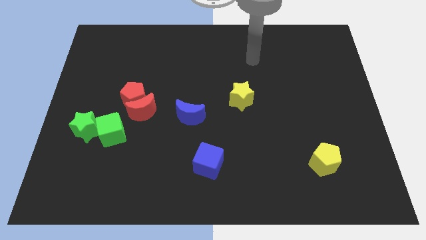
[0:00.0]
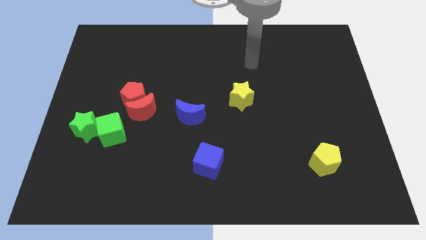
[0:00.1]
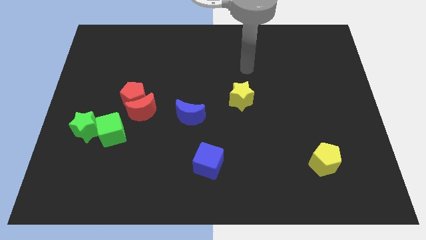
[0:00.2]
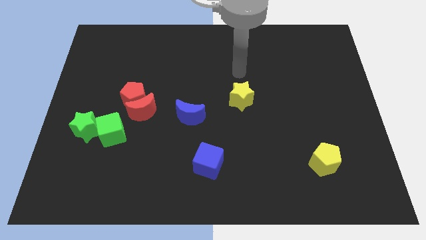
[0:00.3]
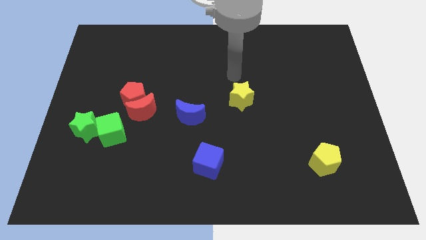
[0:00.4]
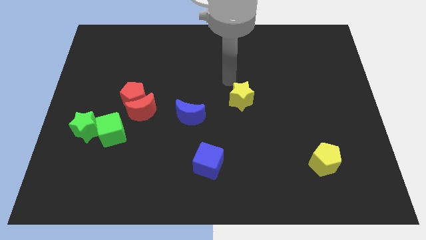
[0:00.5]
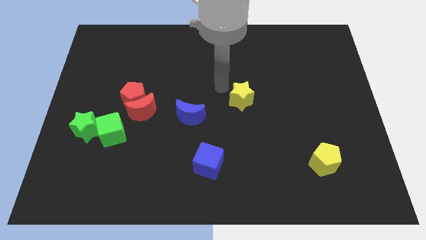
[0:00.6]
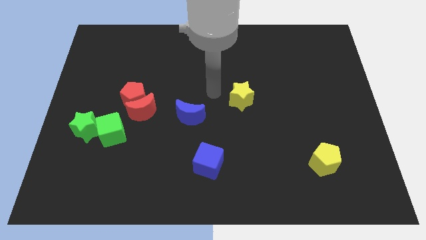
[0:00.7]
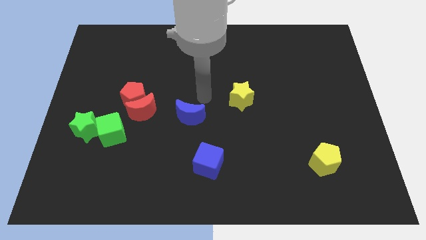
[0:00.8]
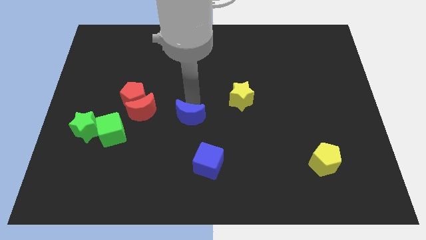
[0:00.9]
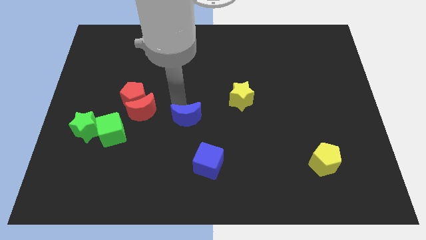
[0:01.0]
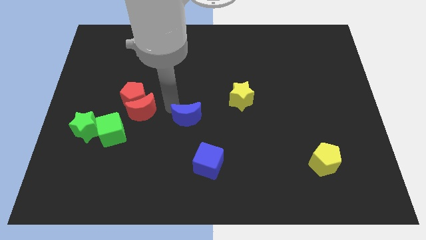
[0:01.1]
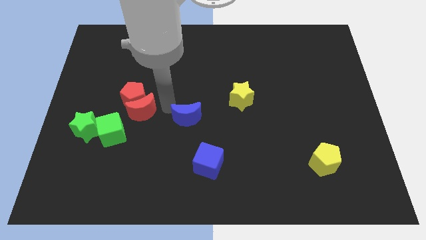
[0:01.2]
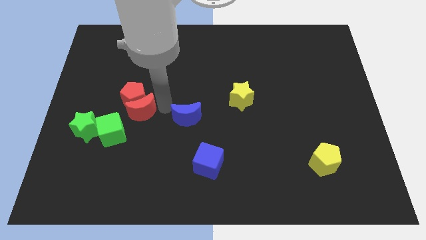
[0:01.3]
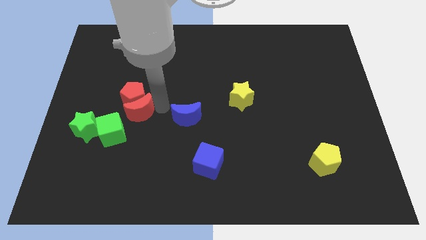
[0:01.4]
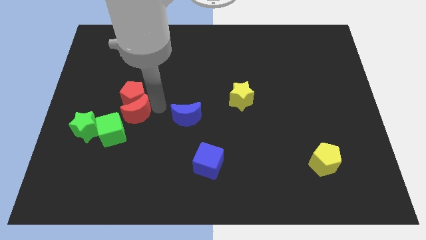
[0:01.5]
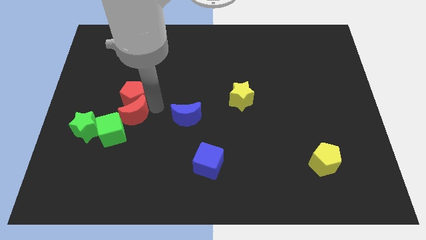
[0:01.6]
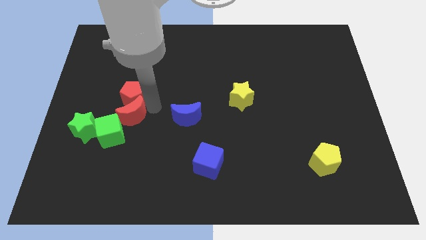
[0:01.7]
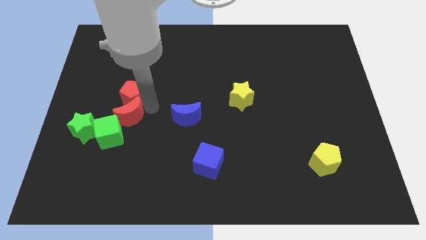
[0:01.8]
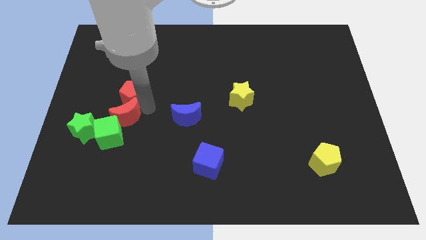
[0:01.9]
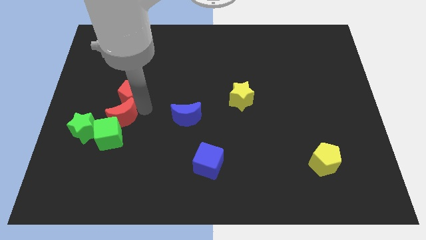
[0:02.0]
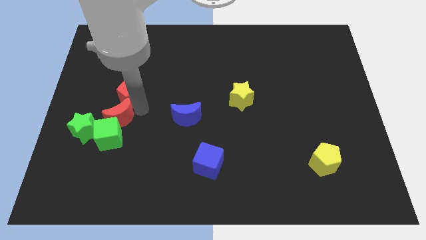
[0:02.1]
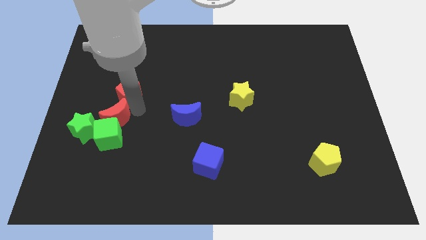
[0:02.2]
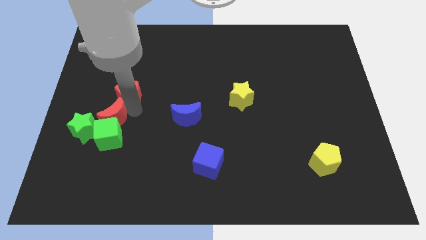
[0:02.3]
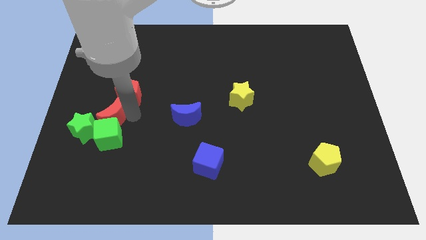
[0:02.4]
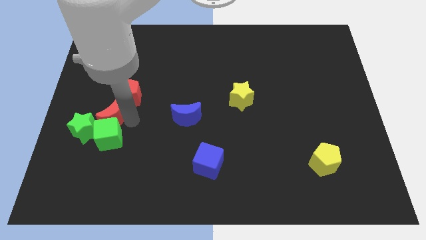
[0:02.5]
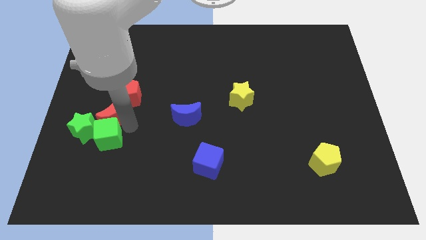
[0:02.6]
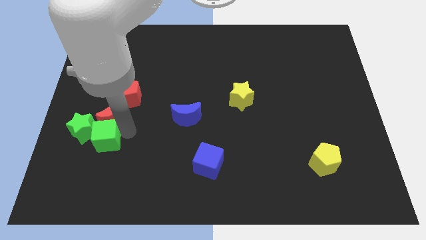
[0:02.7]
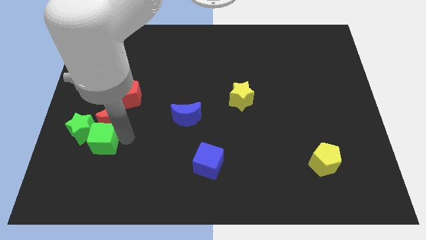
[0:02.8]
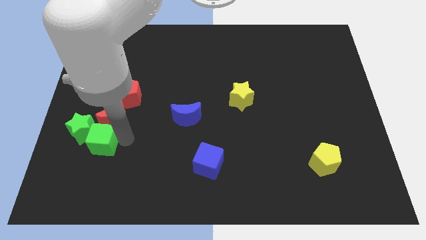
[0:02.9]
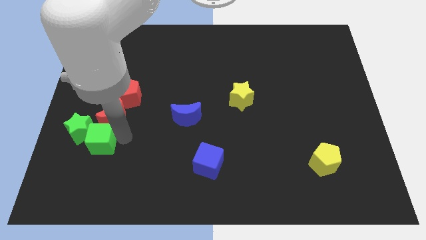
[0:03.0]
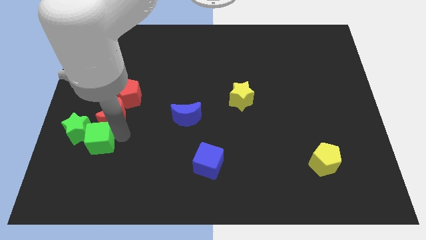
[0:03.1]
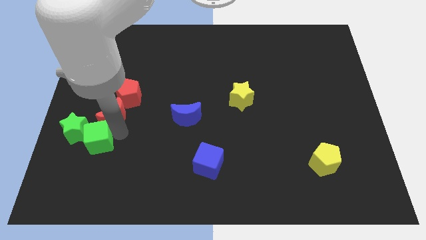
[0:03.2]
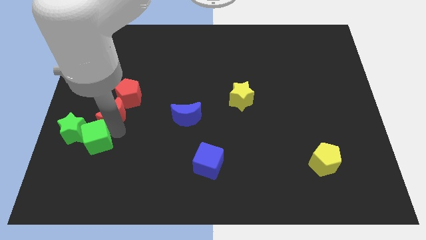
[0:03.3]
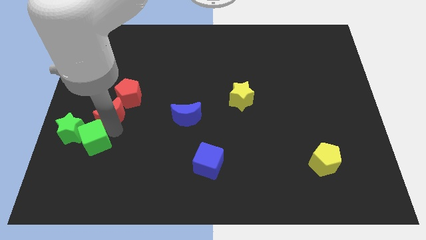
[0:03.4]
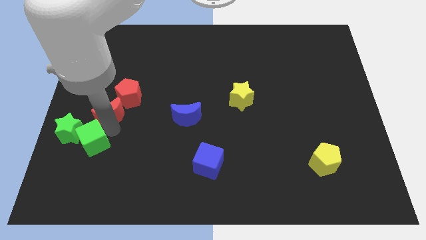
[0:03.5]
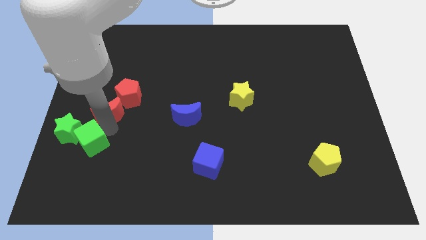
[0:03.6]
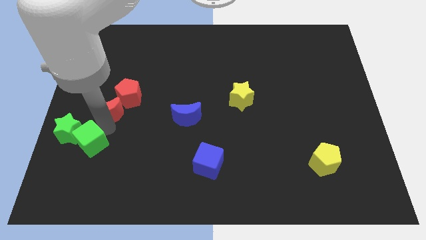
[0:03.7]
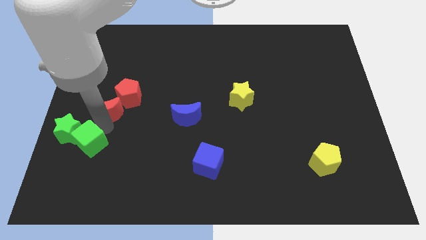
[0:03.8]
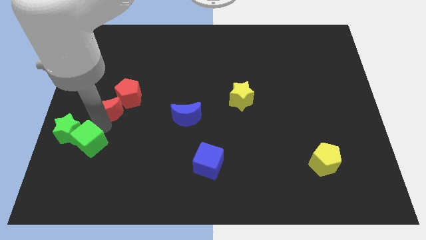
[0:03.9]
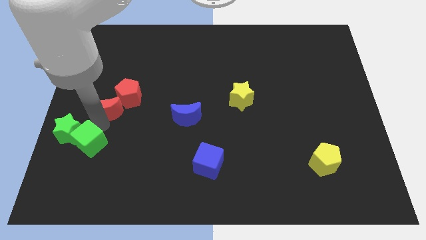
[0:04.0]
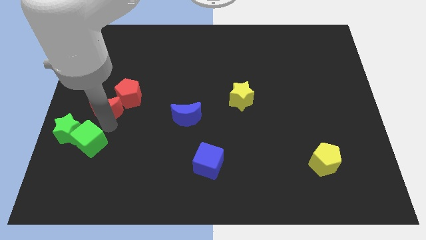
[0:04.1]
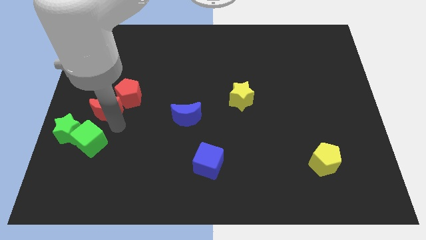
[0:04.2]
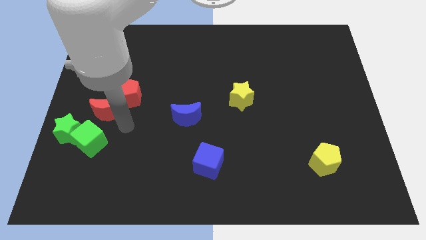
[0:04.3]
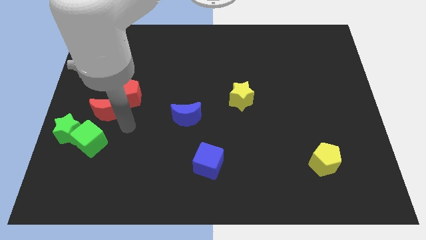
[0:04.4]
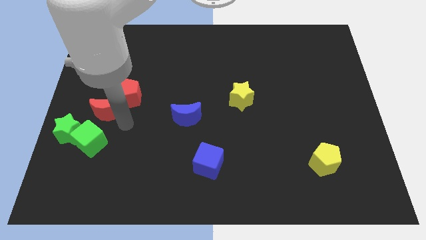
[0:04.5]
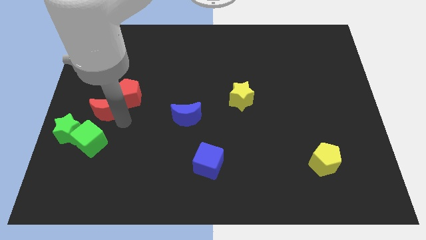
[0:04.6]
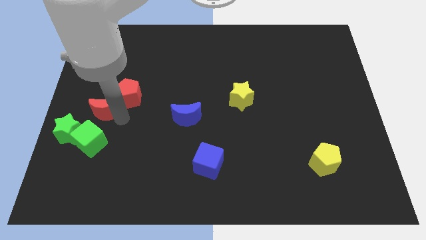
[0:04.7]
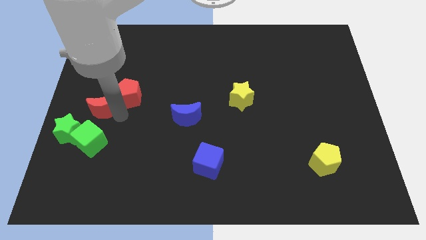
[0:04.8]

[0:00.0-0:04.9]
slide the red moon to the left side

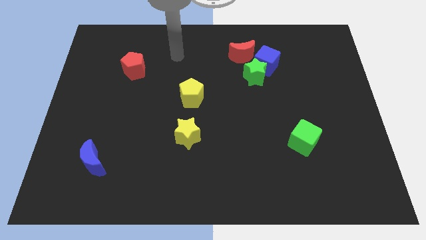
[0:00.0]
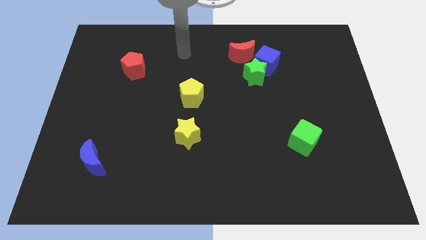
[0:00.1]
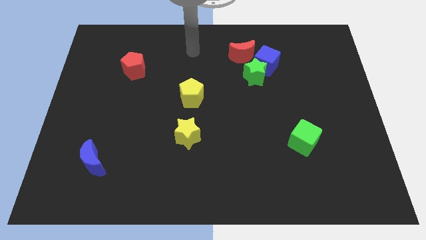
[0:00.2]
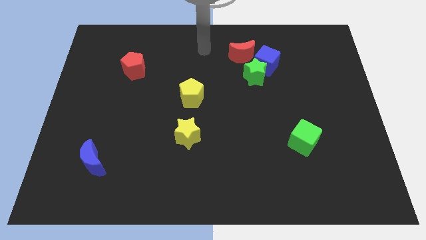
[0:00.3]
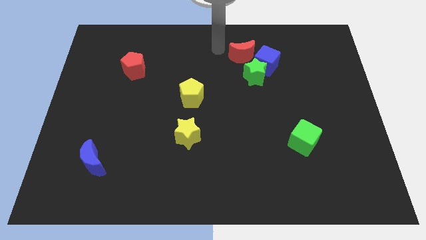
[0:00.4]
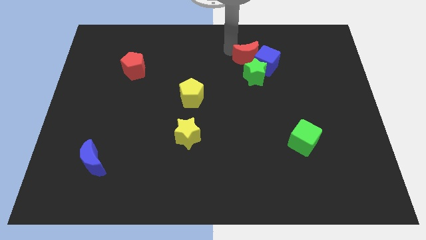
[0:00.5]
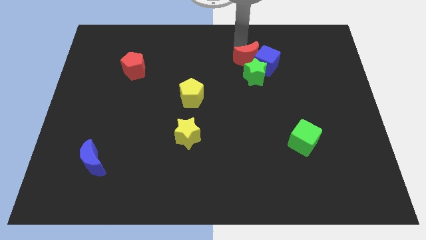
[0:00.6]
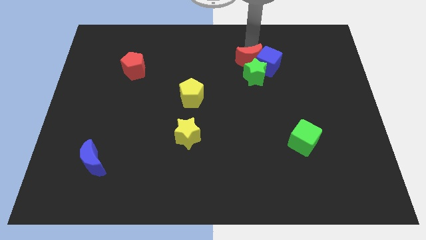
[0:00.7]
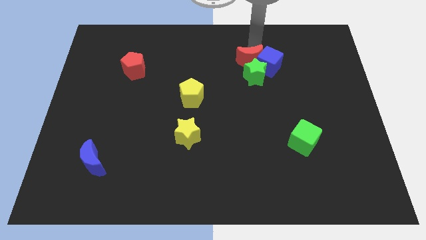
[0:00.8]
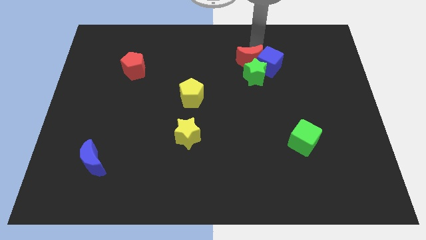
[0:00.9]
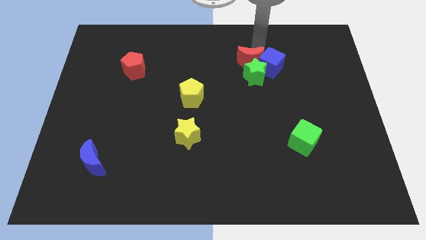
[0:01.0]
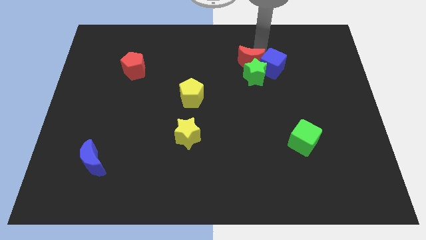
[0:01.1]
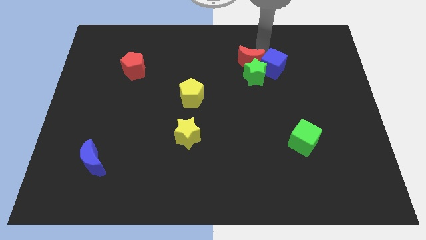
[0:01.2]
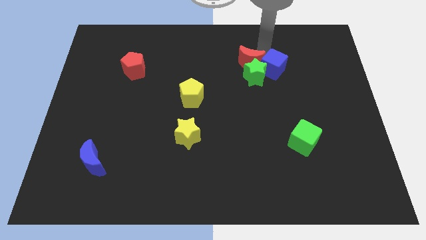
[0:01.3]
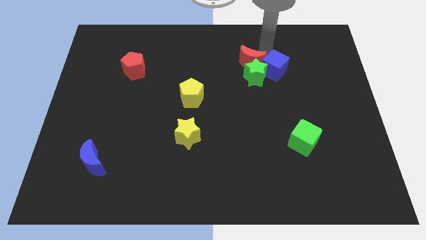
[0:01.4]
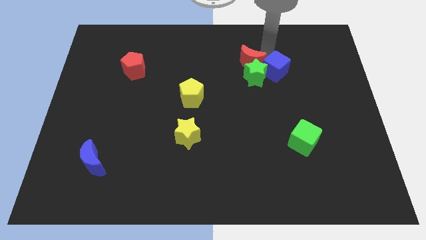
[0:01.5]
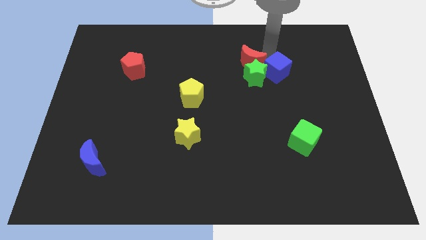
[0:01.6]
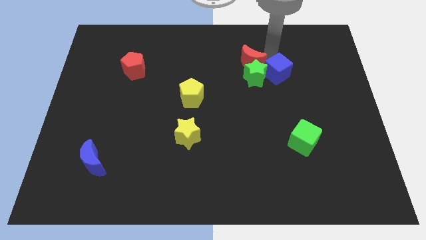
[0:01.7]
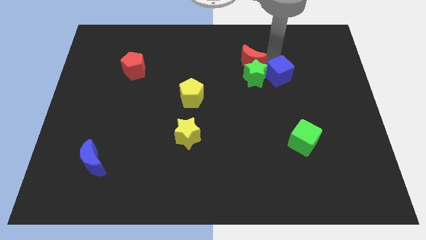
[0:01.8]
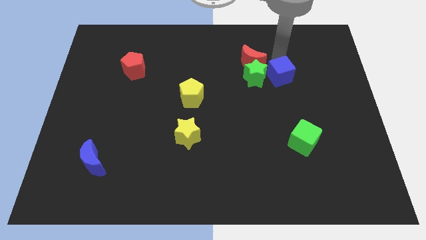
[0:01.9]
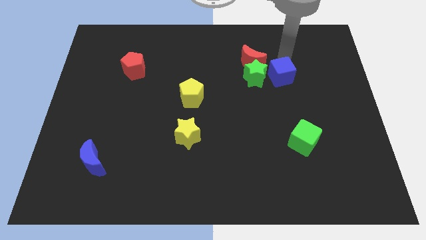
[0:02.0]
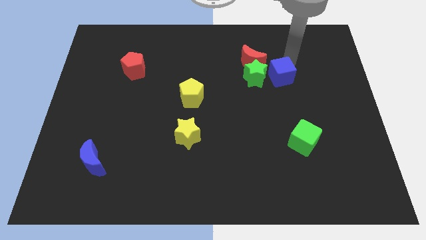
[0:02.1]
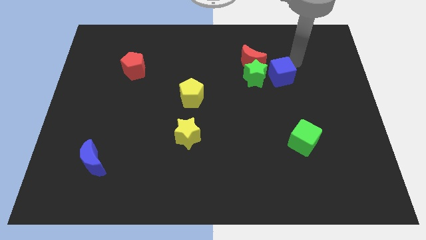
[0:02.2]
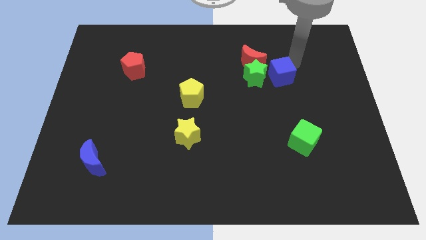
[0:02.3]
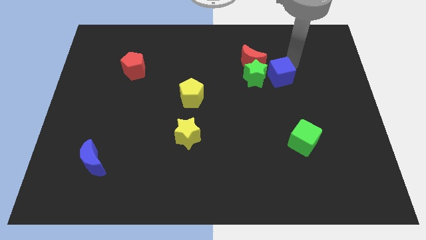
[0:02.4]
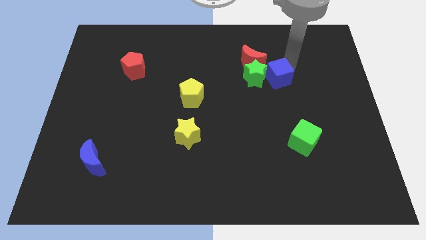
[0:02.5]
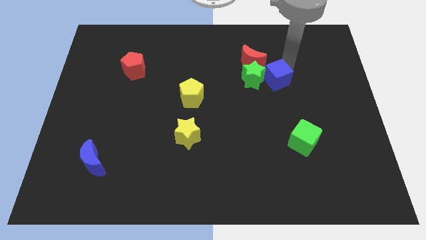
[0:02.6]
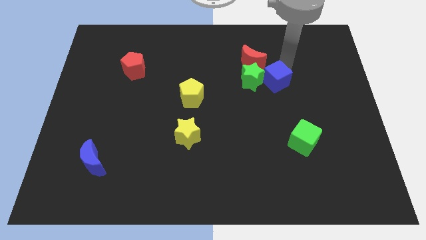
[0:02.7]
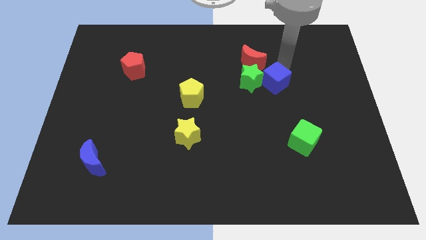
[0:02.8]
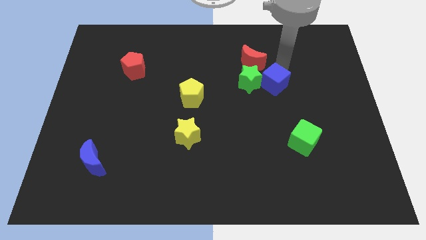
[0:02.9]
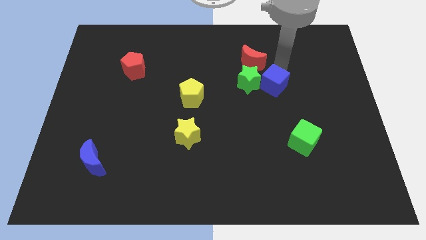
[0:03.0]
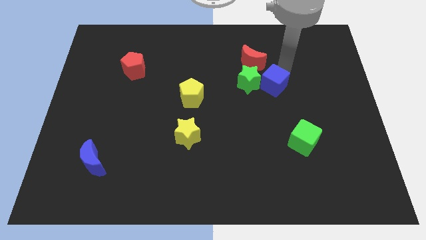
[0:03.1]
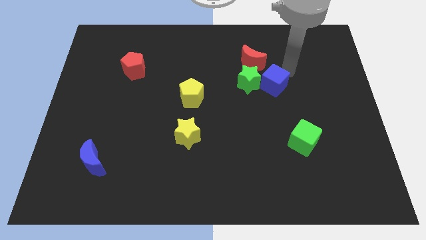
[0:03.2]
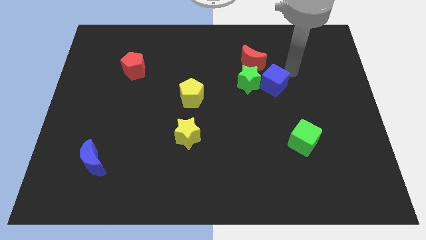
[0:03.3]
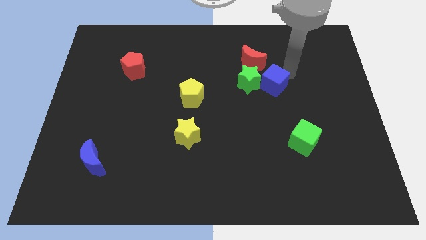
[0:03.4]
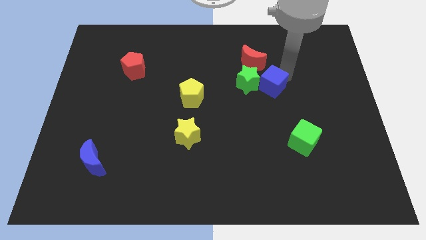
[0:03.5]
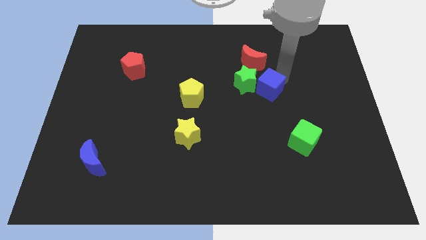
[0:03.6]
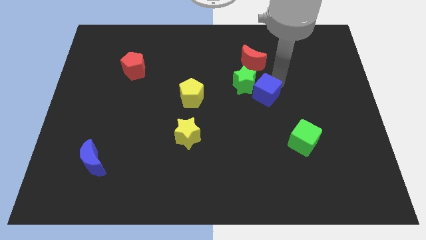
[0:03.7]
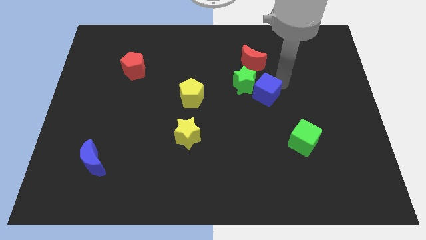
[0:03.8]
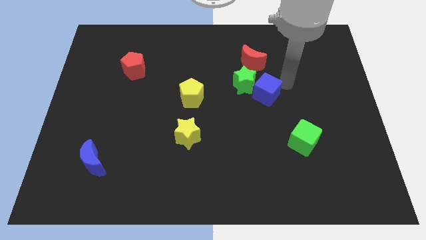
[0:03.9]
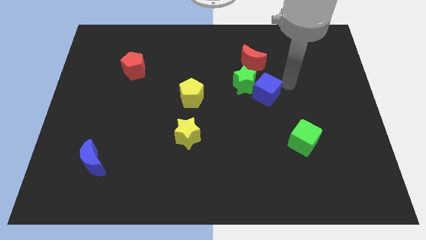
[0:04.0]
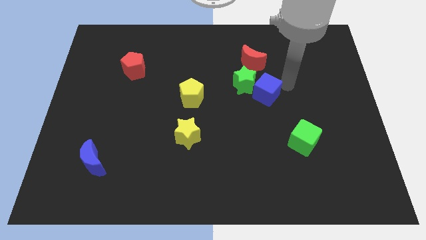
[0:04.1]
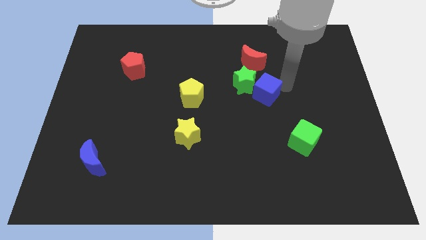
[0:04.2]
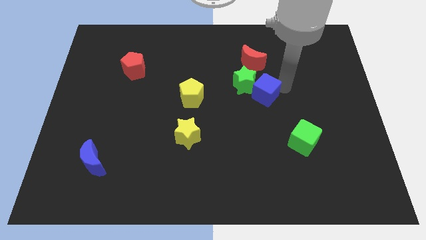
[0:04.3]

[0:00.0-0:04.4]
move the blue cube to the center
